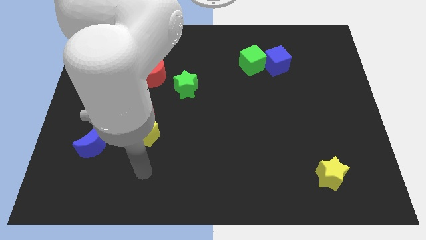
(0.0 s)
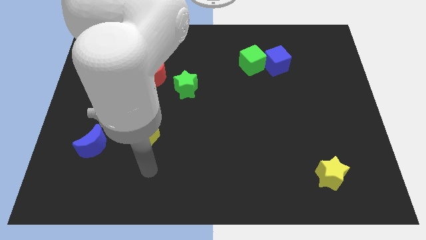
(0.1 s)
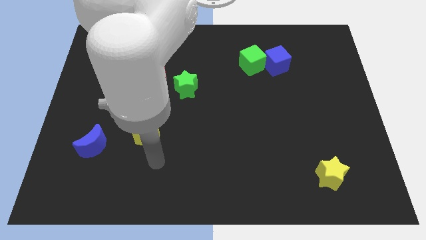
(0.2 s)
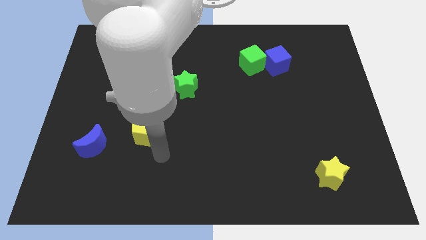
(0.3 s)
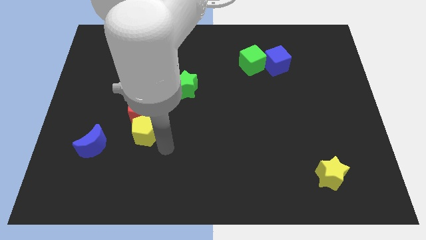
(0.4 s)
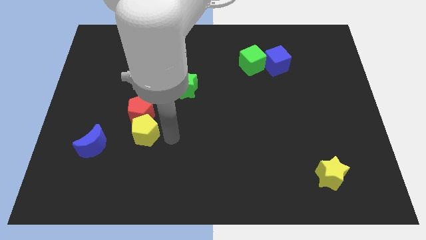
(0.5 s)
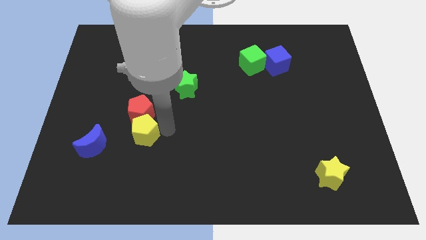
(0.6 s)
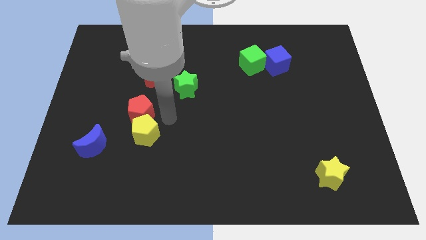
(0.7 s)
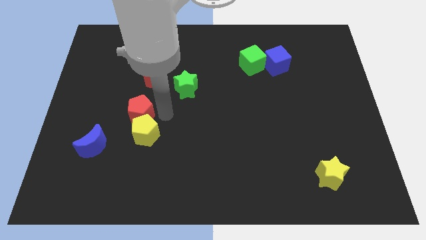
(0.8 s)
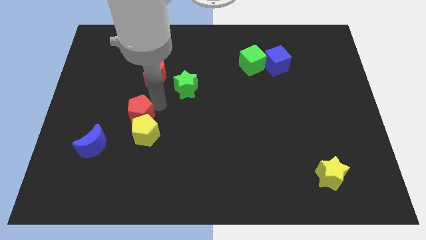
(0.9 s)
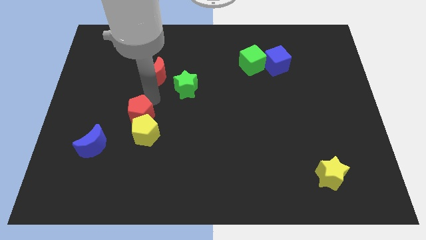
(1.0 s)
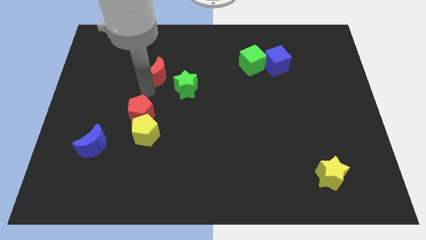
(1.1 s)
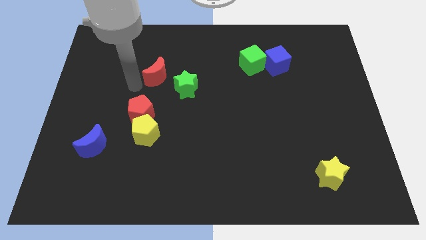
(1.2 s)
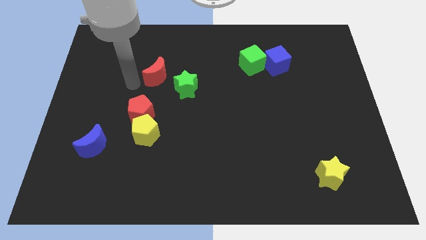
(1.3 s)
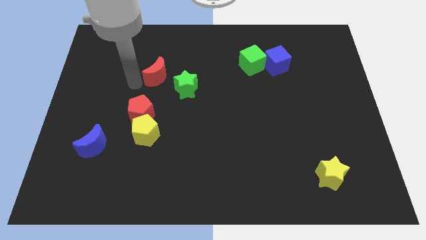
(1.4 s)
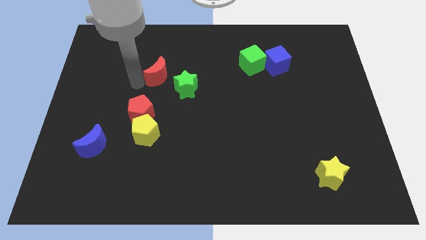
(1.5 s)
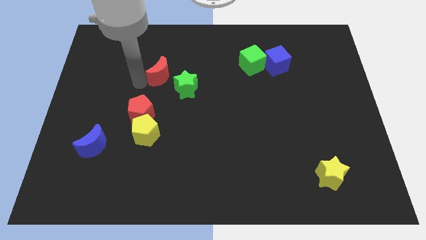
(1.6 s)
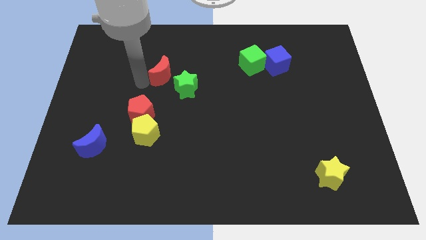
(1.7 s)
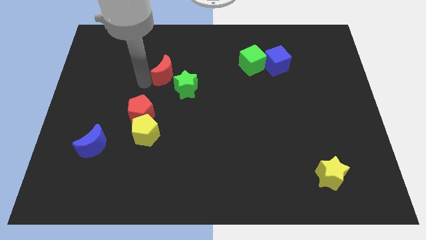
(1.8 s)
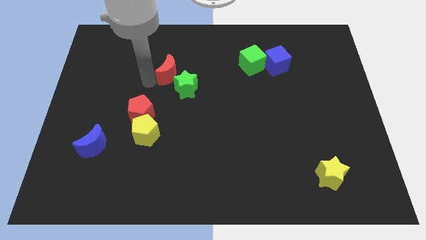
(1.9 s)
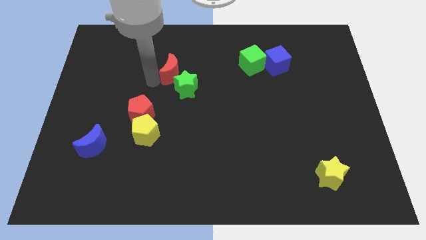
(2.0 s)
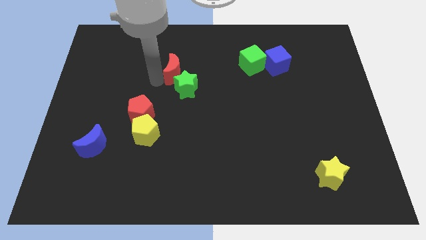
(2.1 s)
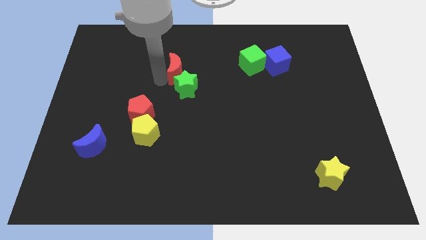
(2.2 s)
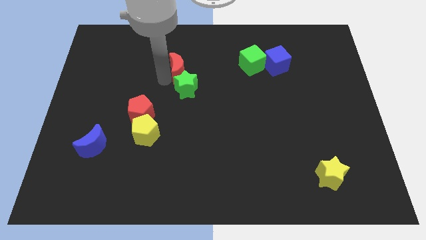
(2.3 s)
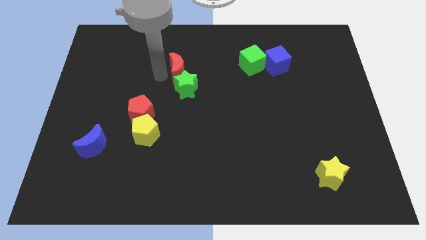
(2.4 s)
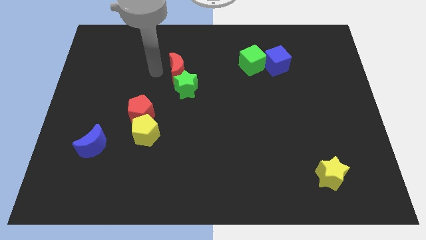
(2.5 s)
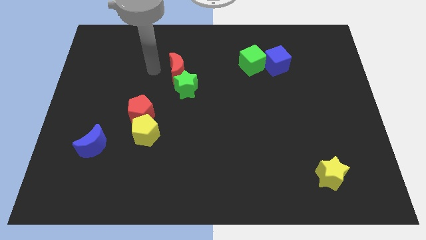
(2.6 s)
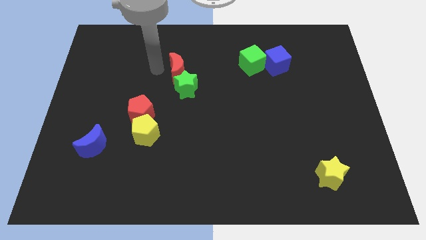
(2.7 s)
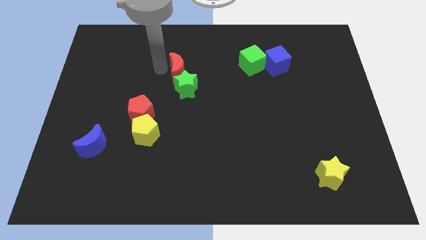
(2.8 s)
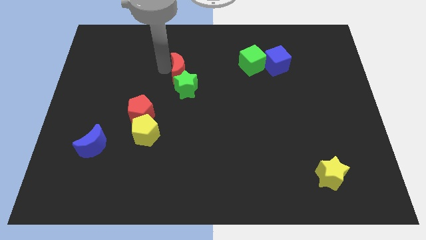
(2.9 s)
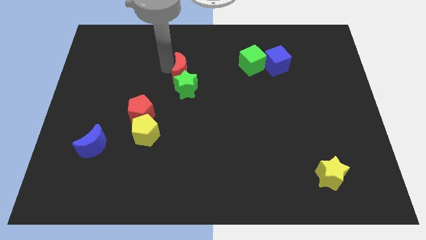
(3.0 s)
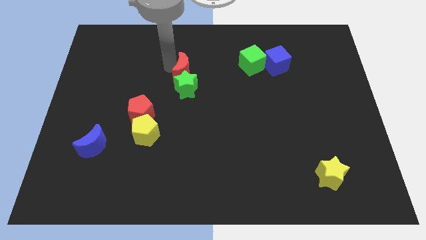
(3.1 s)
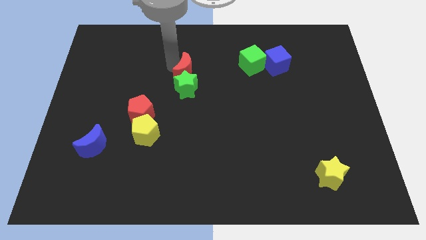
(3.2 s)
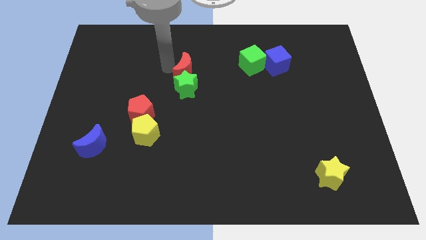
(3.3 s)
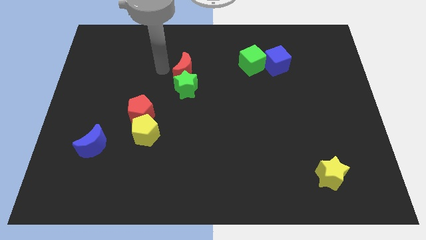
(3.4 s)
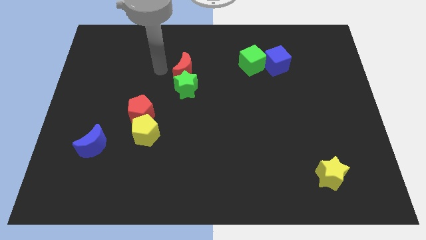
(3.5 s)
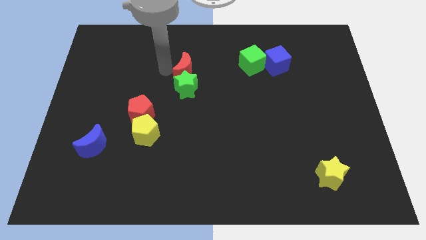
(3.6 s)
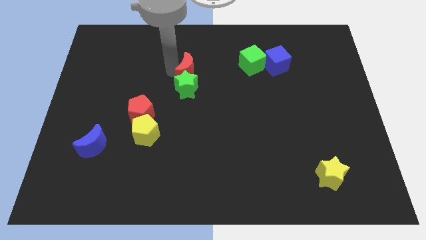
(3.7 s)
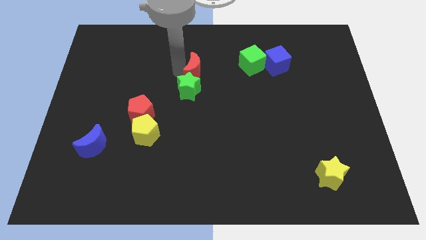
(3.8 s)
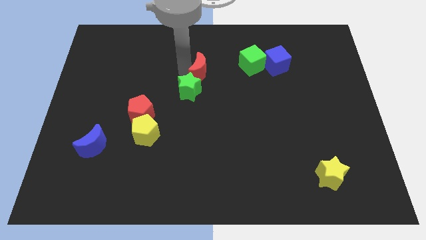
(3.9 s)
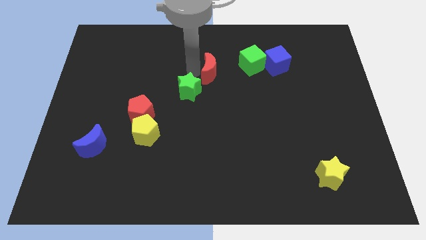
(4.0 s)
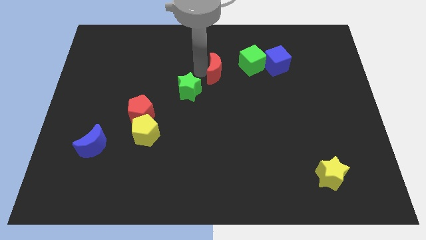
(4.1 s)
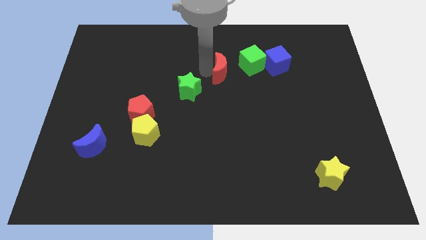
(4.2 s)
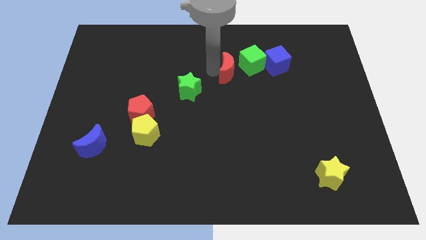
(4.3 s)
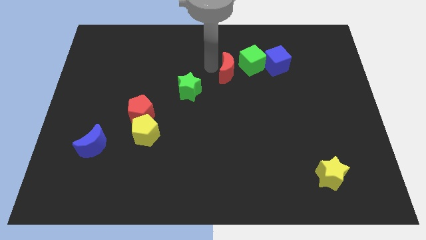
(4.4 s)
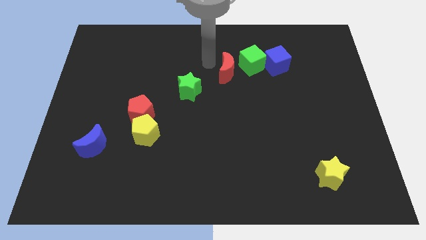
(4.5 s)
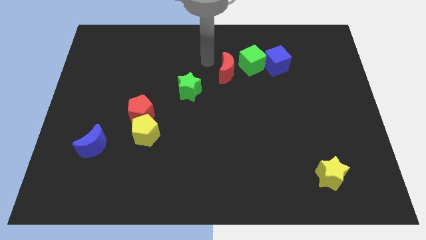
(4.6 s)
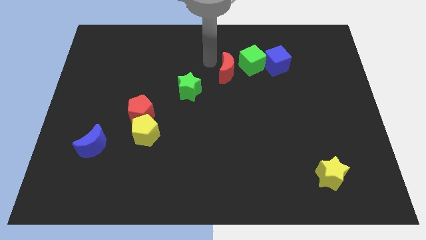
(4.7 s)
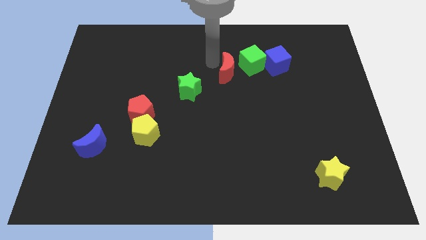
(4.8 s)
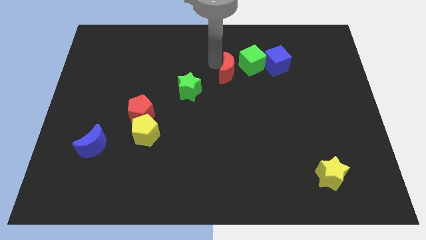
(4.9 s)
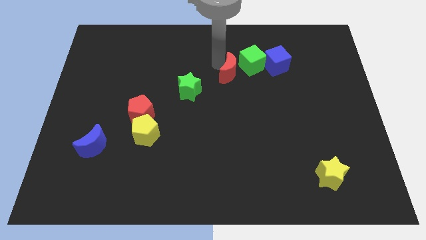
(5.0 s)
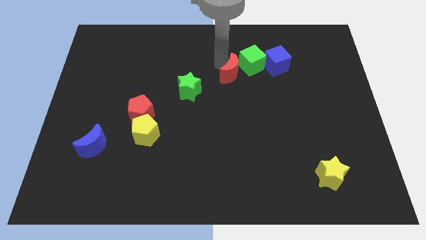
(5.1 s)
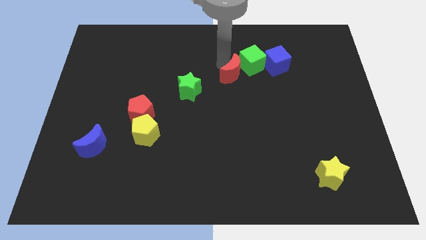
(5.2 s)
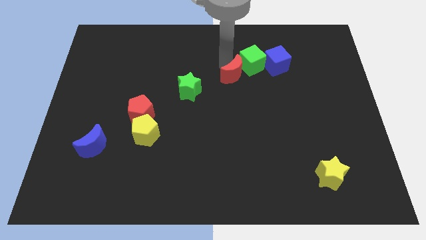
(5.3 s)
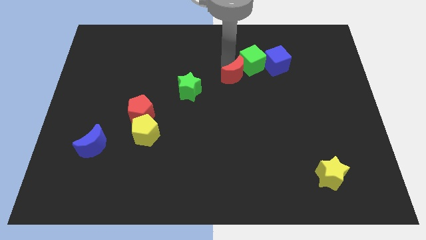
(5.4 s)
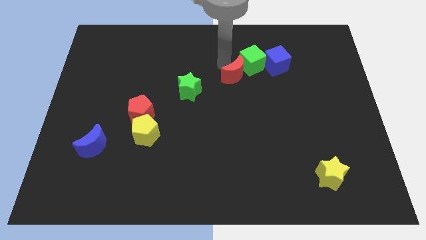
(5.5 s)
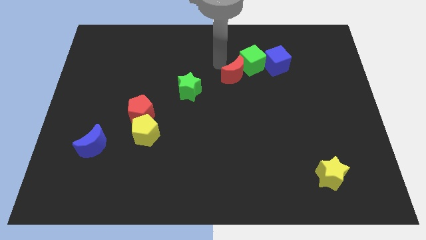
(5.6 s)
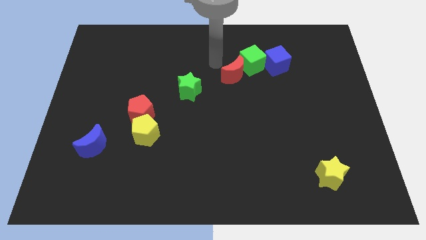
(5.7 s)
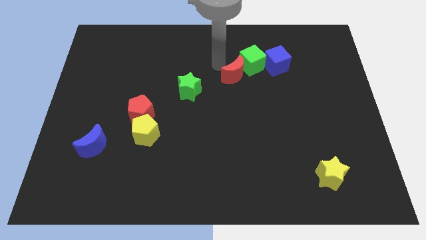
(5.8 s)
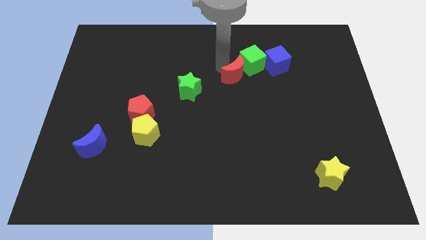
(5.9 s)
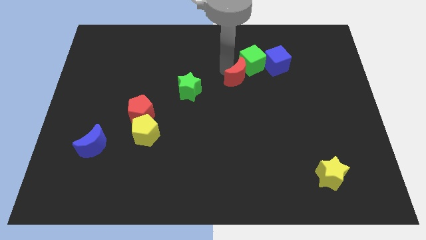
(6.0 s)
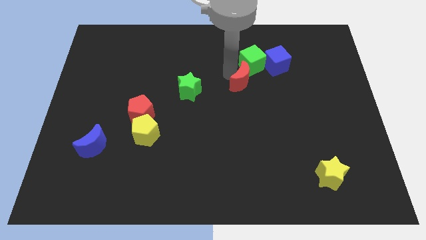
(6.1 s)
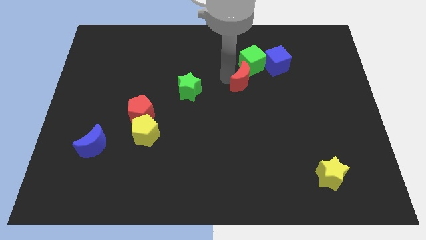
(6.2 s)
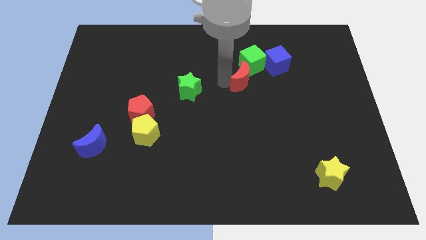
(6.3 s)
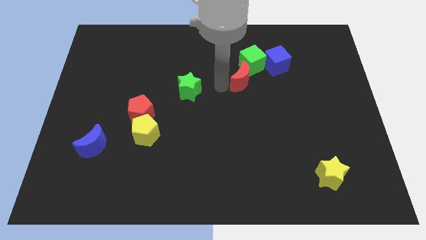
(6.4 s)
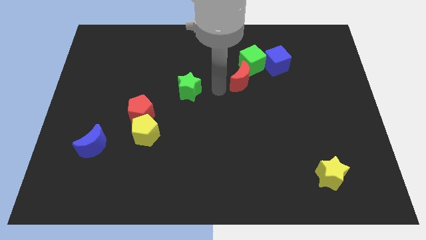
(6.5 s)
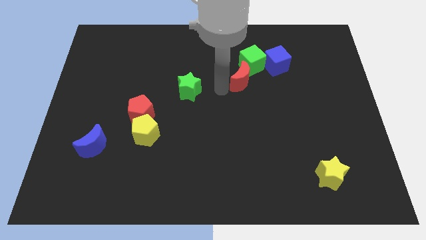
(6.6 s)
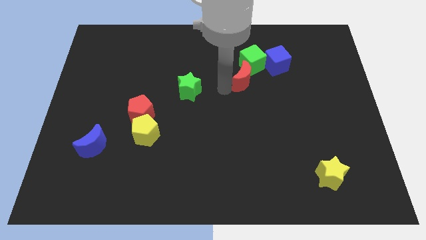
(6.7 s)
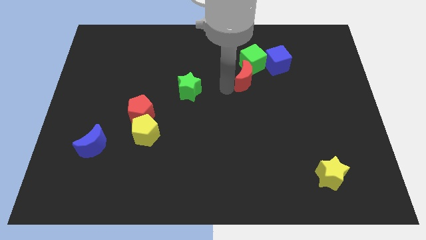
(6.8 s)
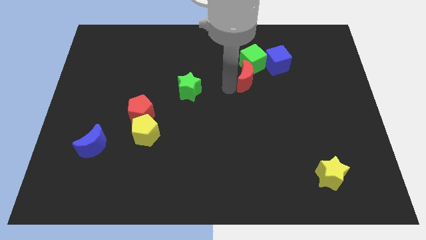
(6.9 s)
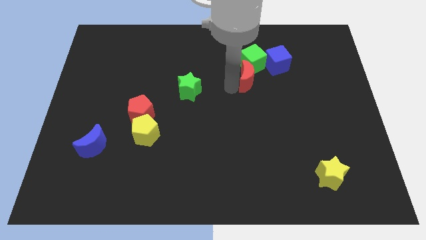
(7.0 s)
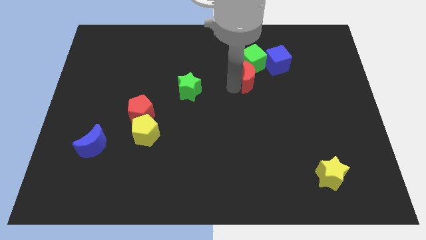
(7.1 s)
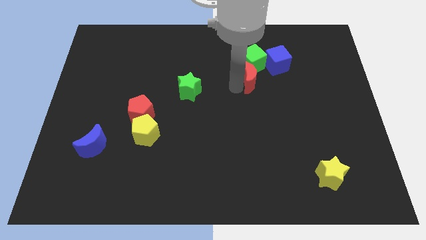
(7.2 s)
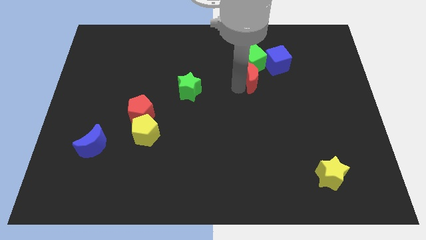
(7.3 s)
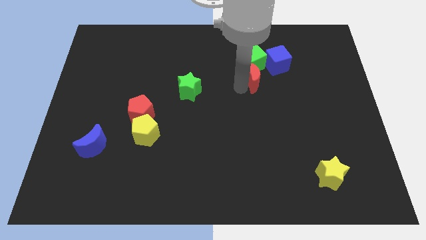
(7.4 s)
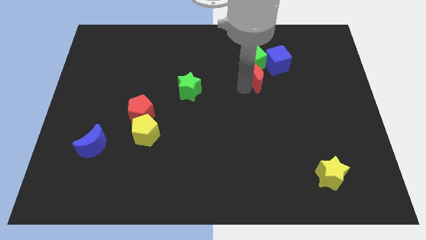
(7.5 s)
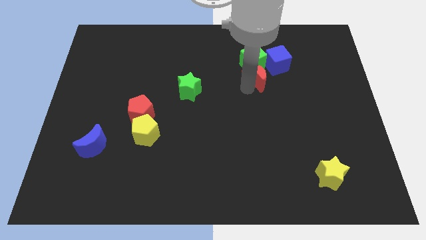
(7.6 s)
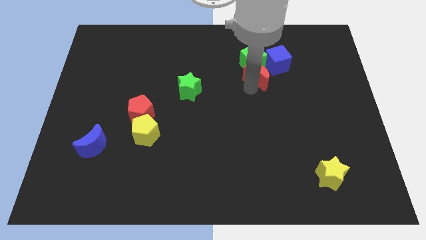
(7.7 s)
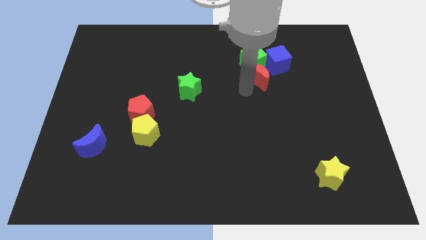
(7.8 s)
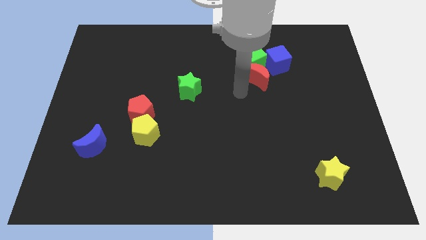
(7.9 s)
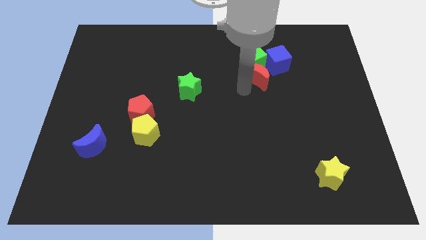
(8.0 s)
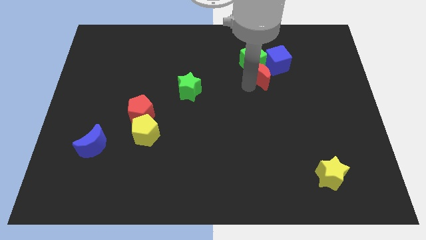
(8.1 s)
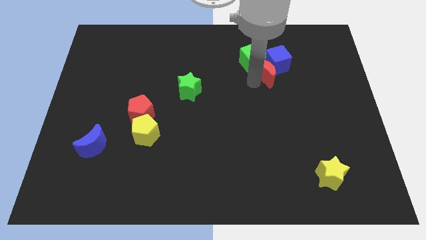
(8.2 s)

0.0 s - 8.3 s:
move the red moon to the blue cube
